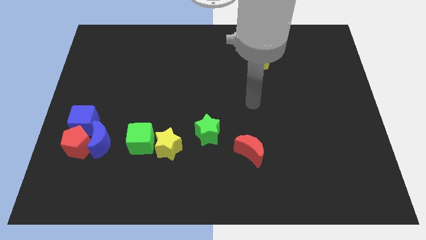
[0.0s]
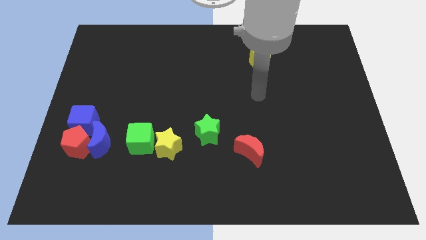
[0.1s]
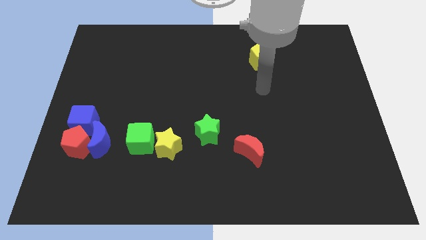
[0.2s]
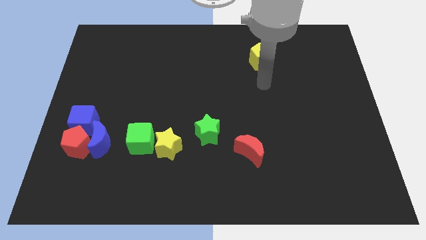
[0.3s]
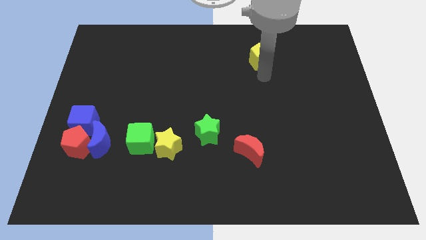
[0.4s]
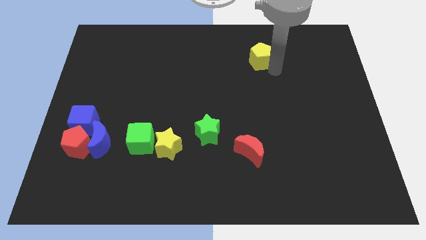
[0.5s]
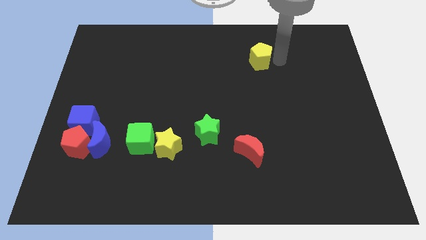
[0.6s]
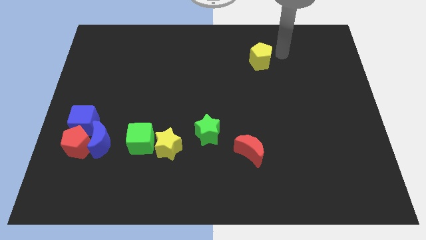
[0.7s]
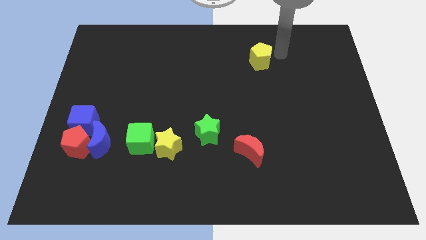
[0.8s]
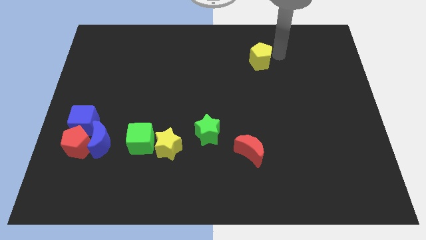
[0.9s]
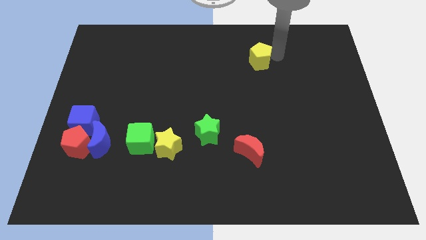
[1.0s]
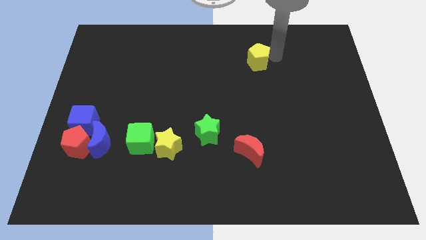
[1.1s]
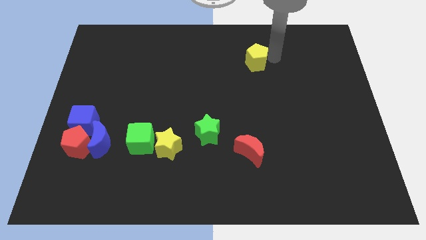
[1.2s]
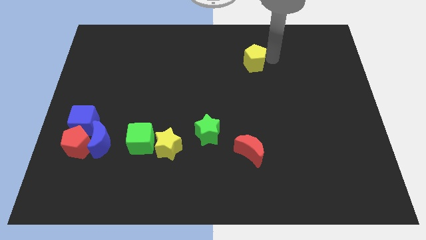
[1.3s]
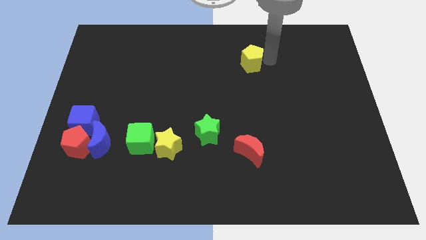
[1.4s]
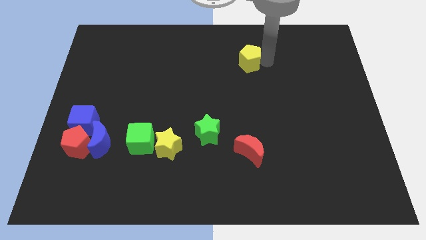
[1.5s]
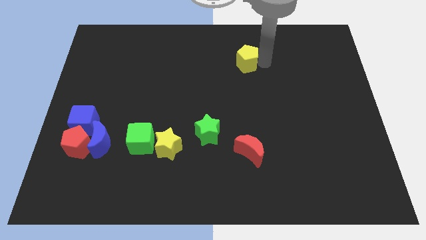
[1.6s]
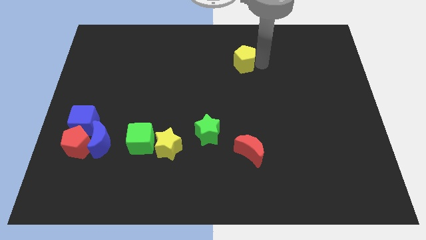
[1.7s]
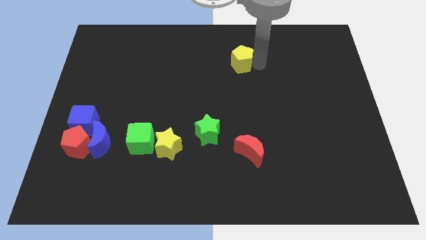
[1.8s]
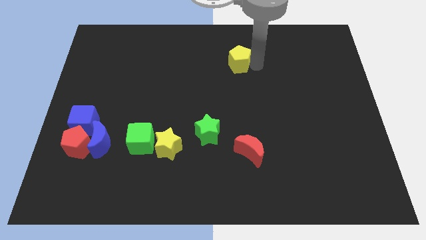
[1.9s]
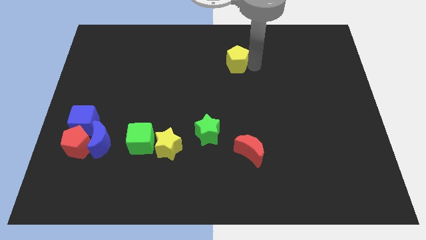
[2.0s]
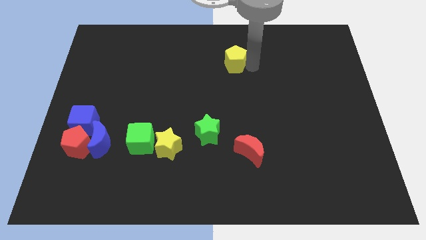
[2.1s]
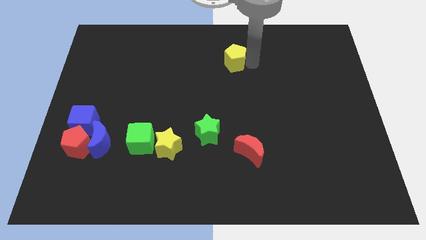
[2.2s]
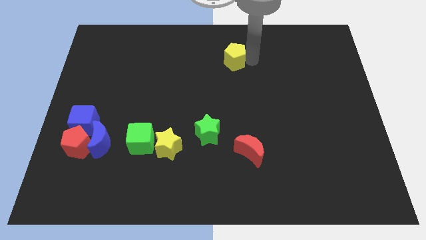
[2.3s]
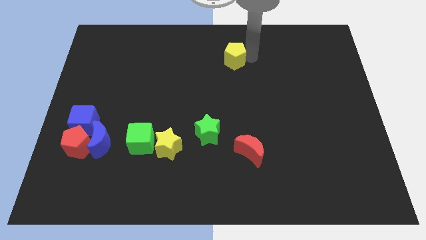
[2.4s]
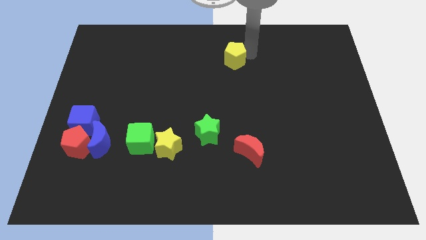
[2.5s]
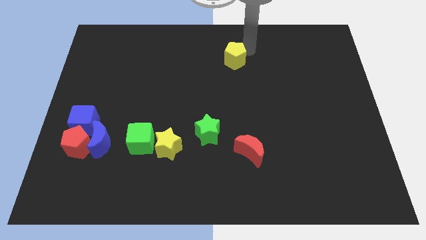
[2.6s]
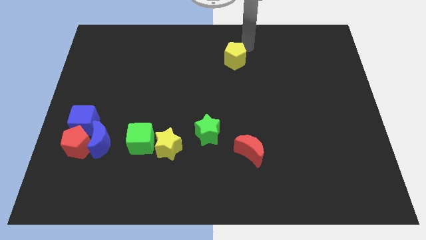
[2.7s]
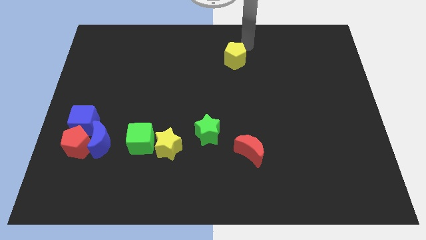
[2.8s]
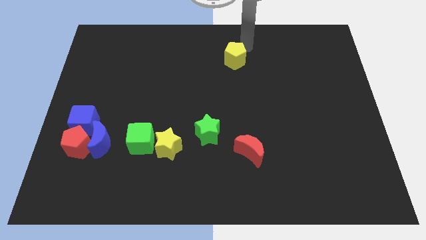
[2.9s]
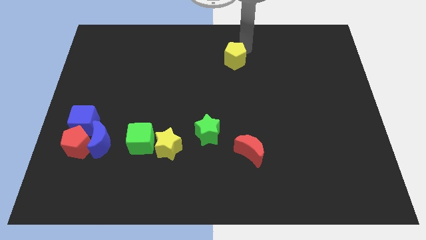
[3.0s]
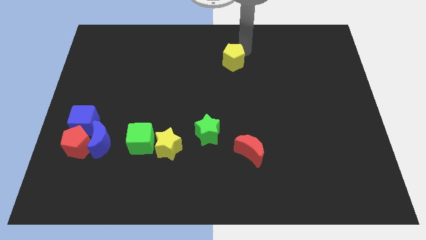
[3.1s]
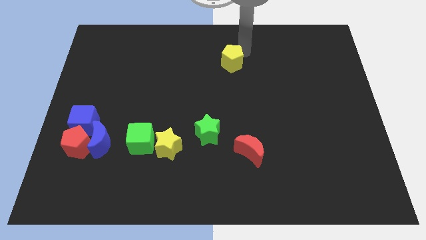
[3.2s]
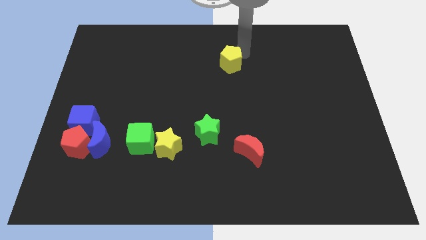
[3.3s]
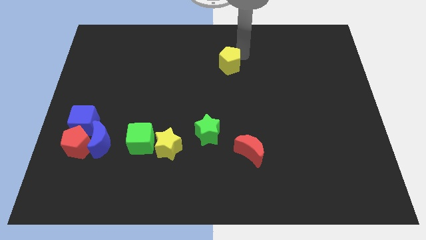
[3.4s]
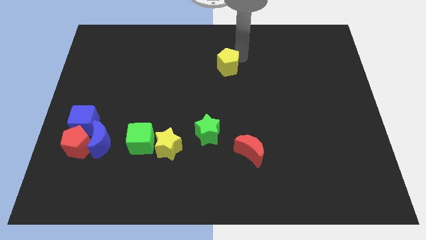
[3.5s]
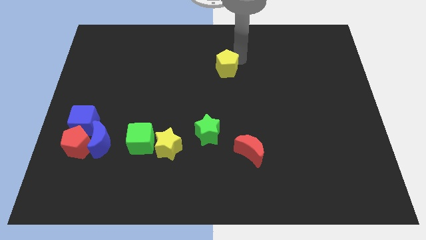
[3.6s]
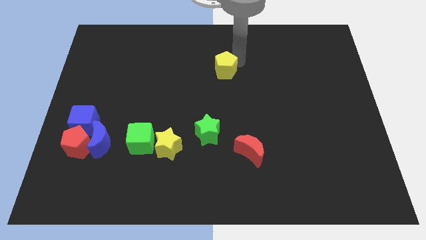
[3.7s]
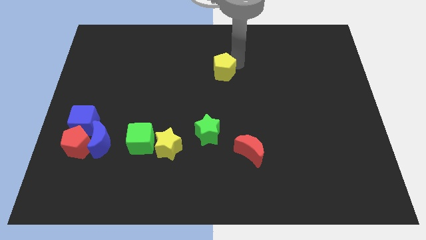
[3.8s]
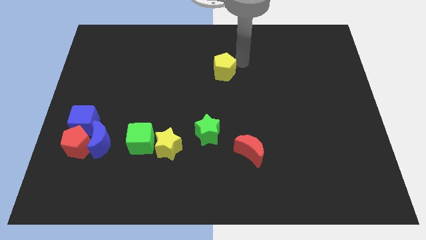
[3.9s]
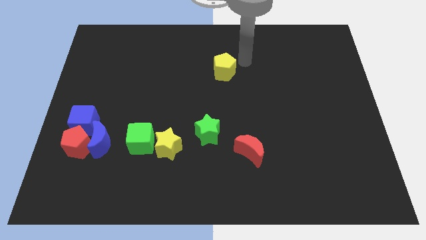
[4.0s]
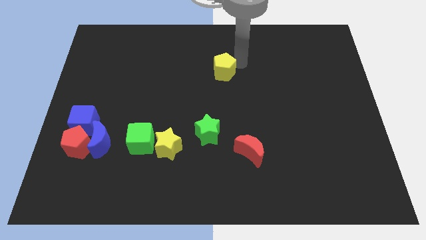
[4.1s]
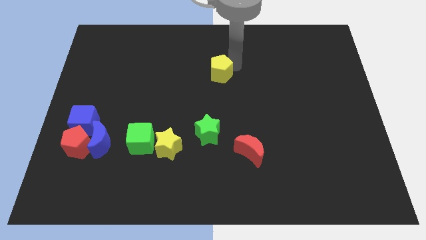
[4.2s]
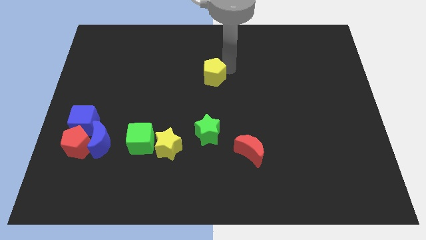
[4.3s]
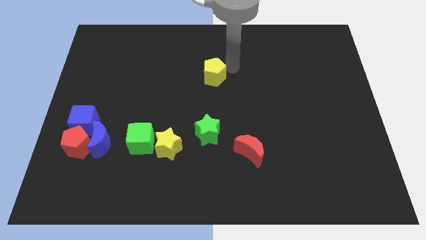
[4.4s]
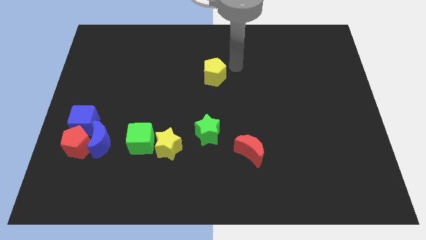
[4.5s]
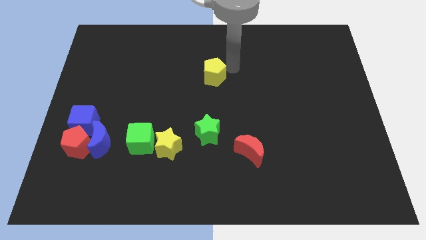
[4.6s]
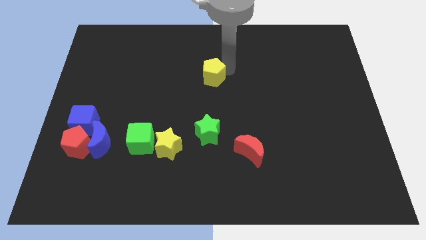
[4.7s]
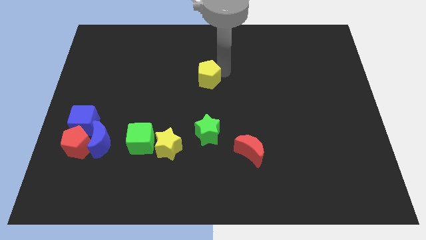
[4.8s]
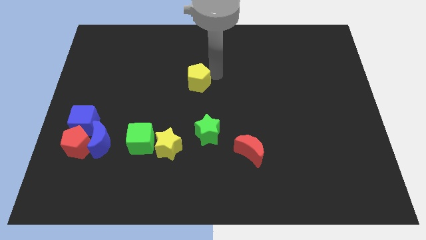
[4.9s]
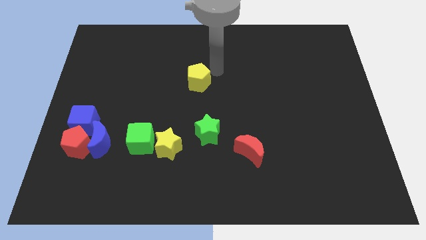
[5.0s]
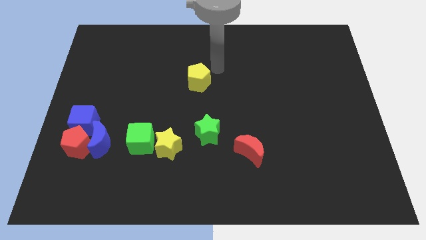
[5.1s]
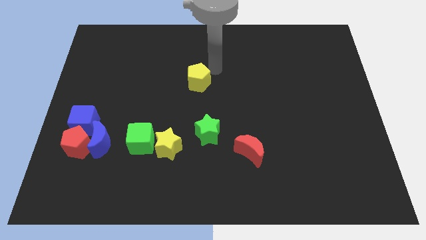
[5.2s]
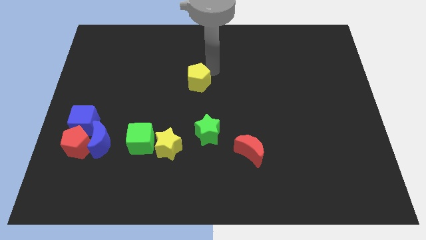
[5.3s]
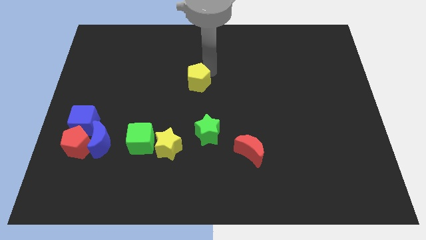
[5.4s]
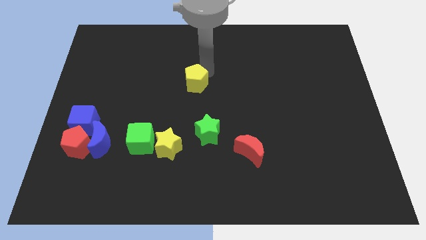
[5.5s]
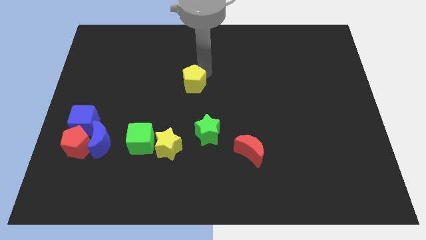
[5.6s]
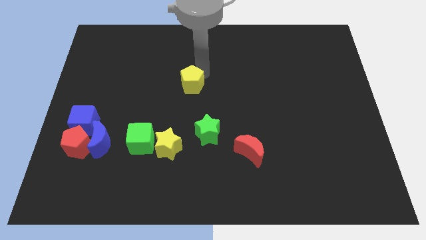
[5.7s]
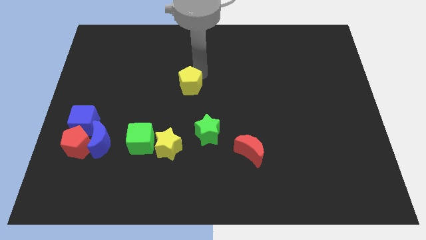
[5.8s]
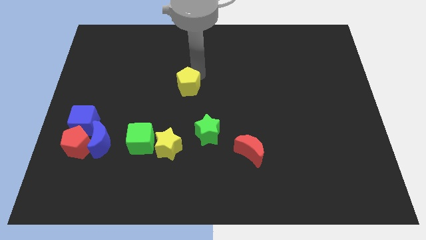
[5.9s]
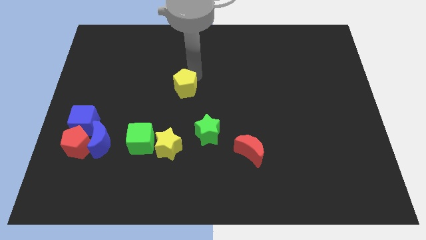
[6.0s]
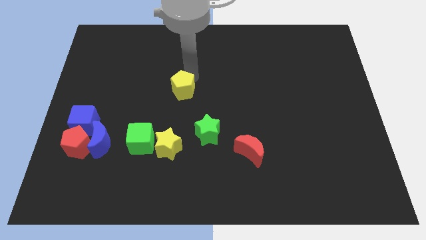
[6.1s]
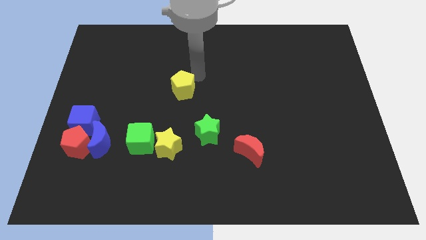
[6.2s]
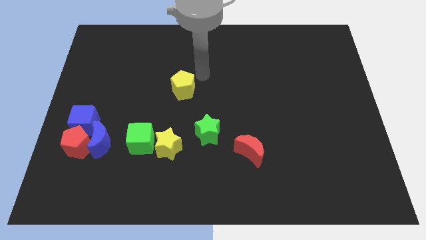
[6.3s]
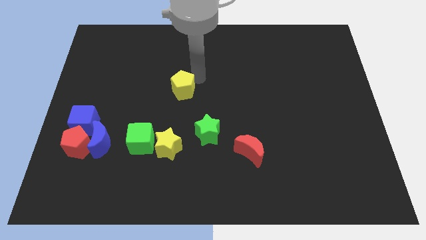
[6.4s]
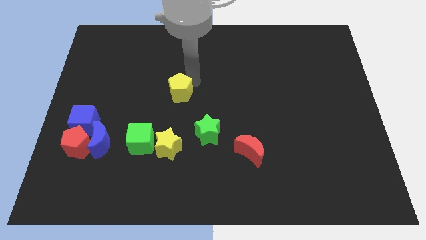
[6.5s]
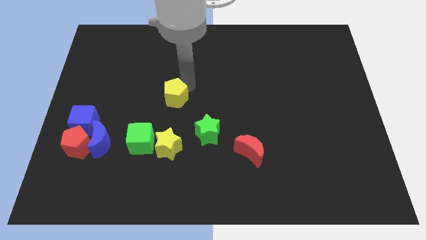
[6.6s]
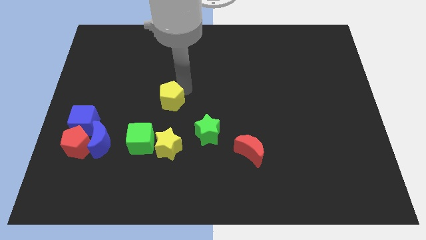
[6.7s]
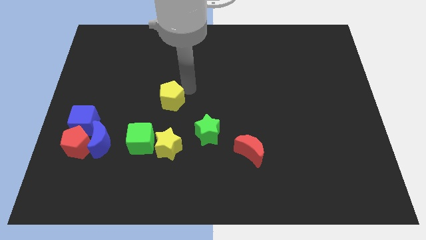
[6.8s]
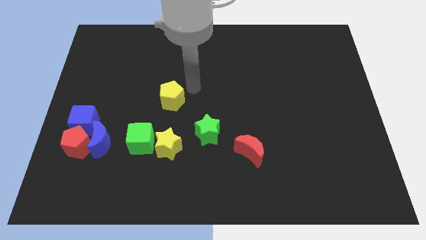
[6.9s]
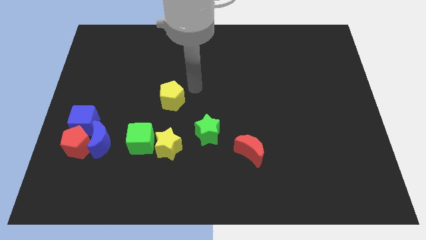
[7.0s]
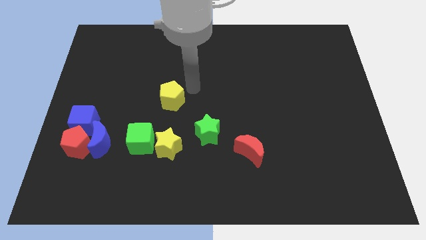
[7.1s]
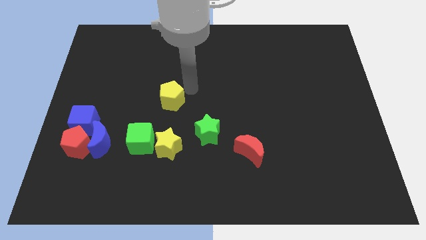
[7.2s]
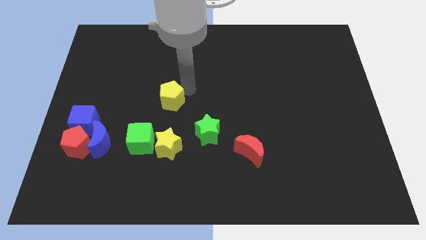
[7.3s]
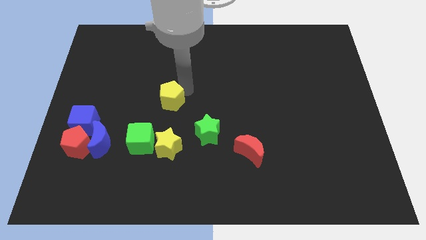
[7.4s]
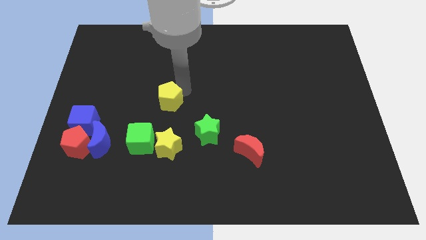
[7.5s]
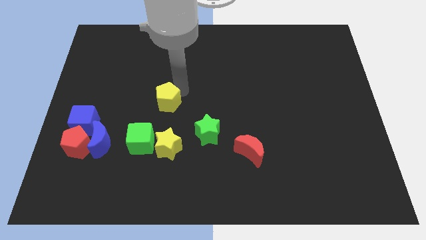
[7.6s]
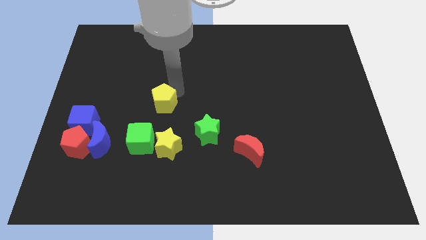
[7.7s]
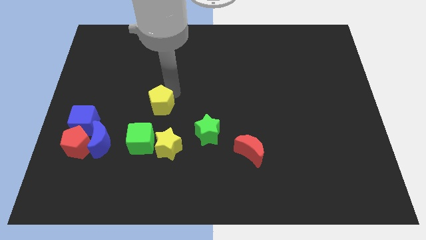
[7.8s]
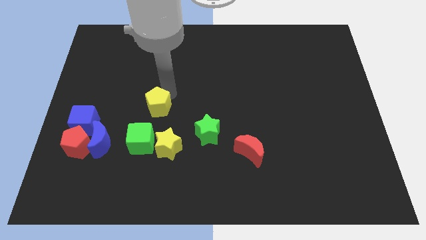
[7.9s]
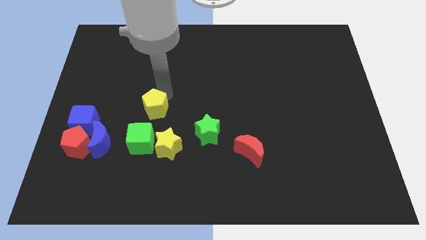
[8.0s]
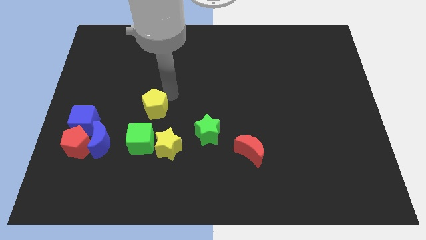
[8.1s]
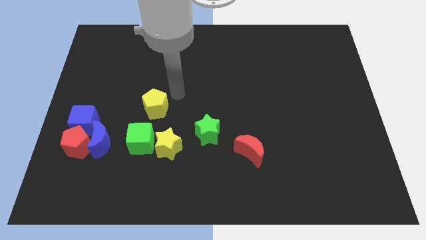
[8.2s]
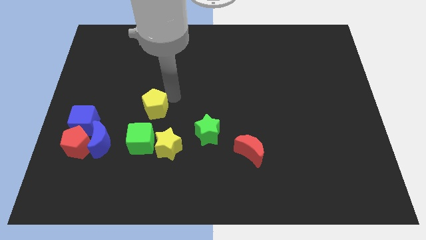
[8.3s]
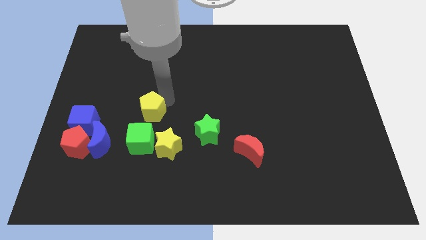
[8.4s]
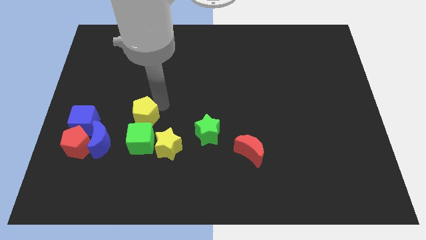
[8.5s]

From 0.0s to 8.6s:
push the yellow pentagon to the top right of the blue moon
